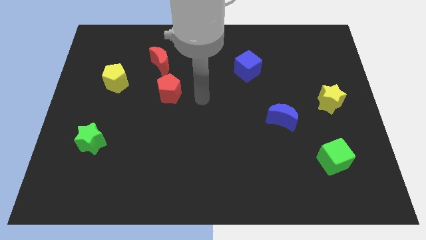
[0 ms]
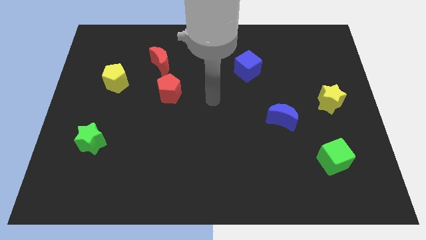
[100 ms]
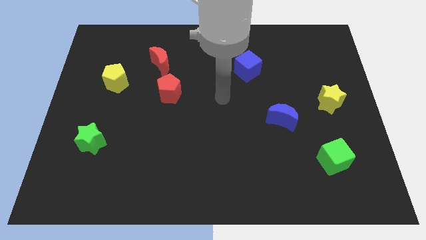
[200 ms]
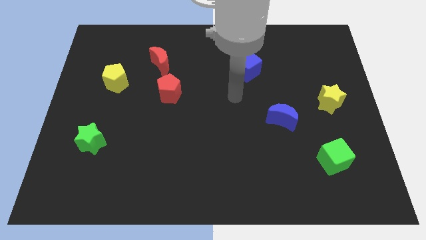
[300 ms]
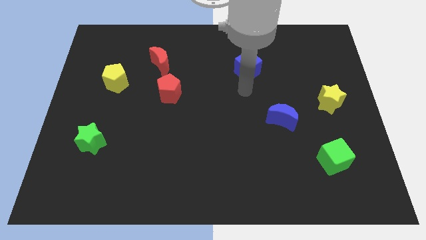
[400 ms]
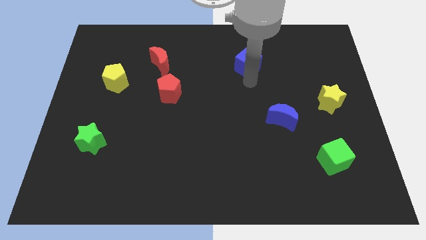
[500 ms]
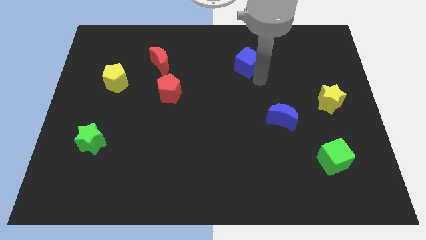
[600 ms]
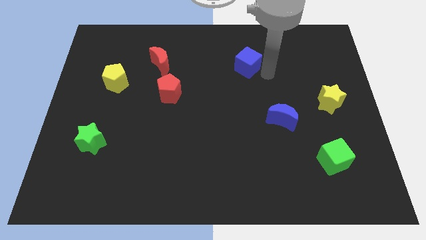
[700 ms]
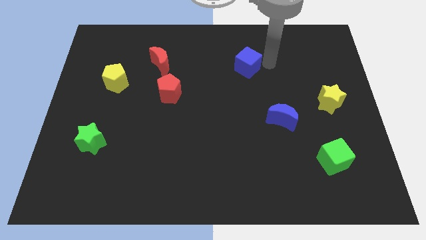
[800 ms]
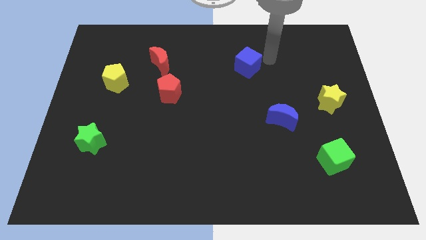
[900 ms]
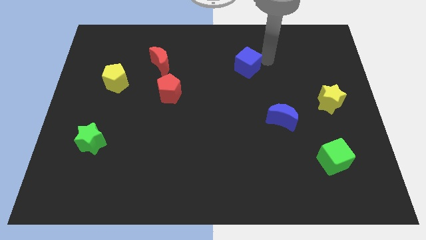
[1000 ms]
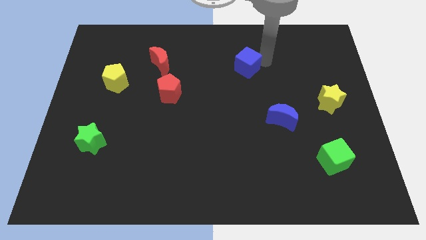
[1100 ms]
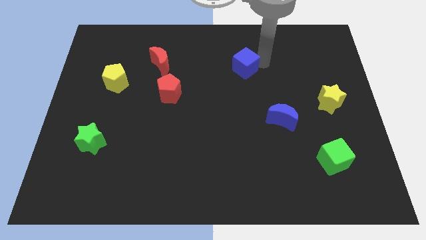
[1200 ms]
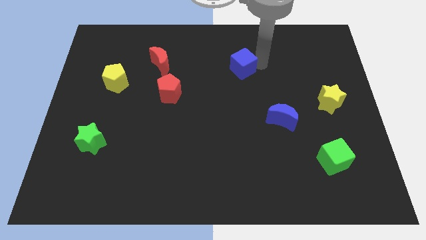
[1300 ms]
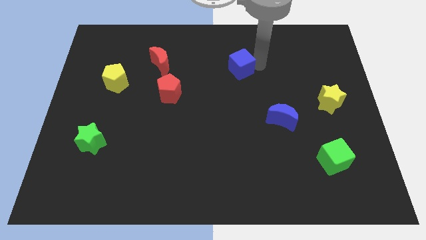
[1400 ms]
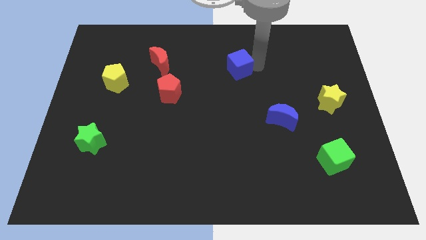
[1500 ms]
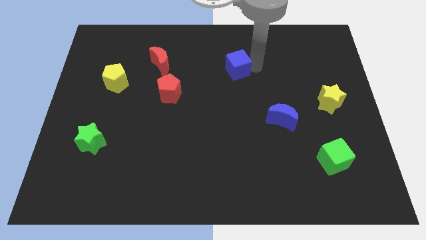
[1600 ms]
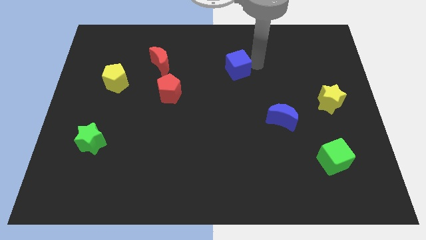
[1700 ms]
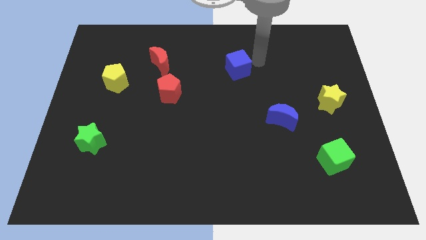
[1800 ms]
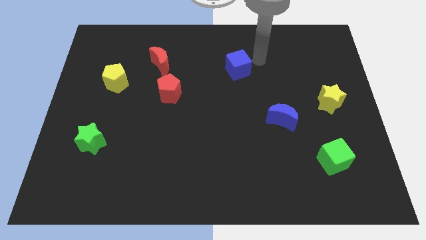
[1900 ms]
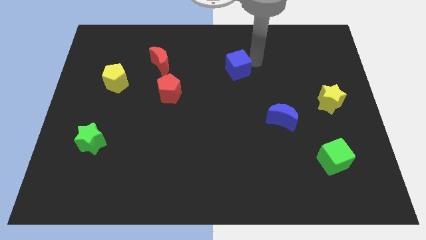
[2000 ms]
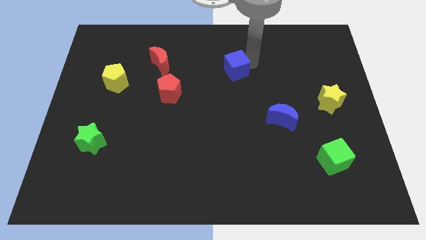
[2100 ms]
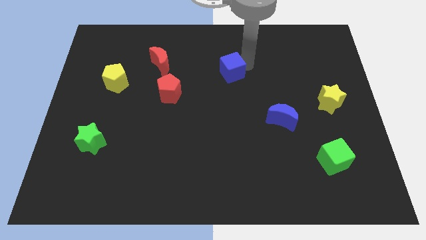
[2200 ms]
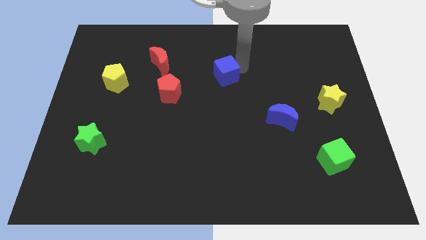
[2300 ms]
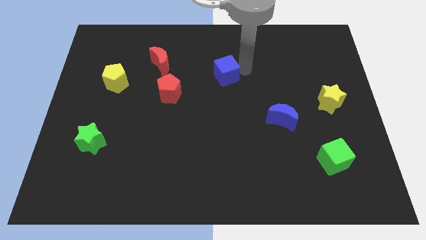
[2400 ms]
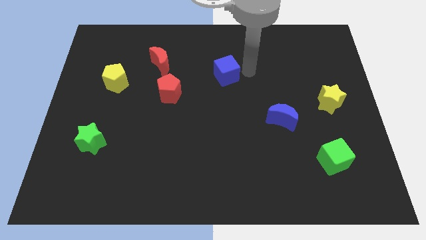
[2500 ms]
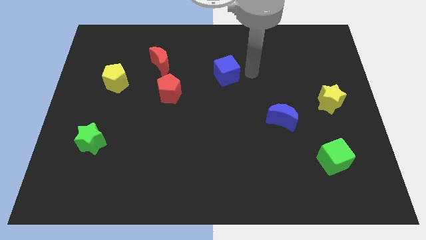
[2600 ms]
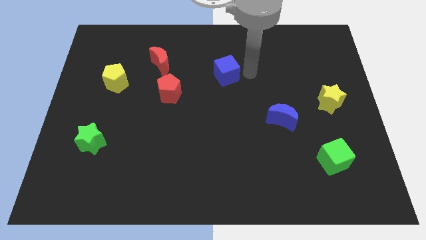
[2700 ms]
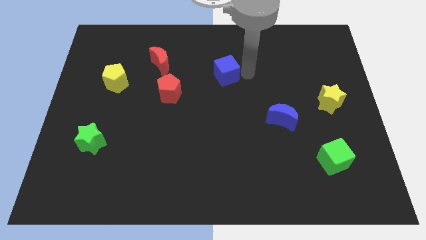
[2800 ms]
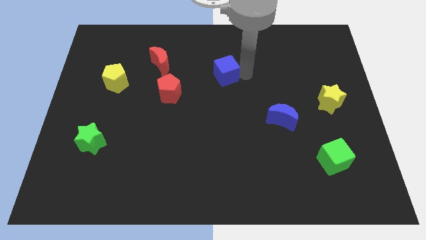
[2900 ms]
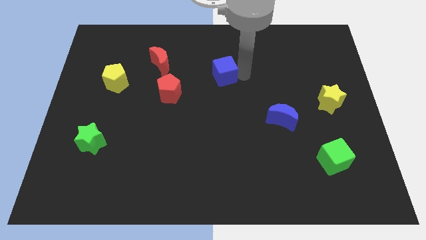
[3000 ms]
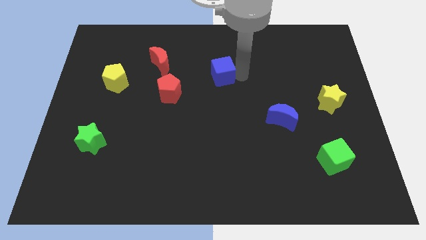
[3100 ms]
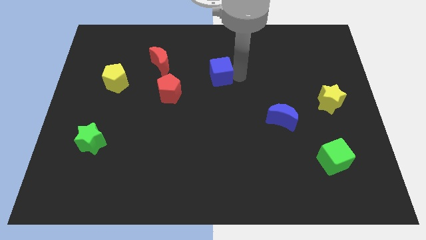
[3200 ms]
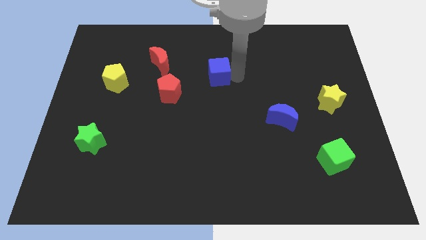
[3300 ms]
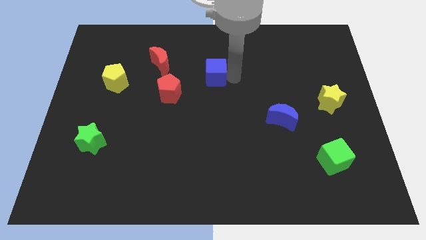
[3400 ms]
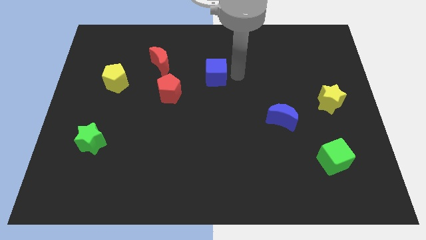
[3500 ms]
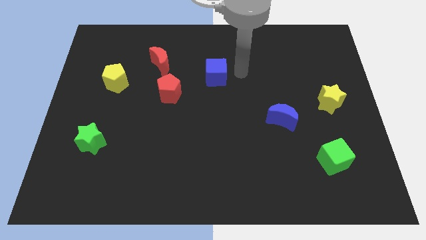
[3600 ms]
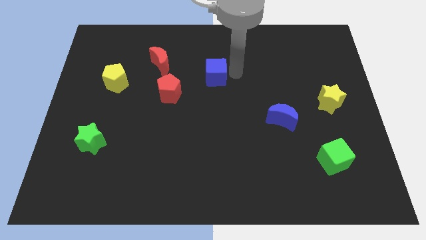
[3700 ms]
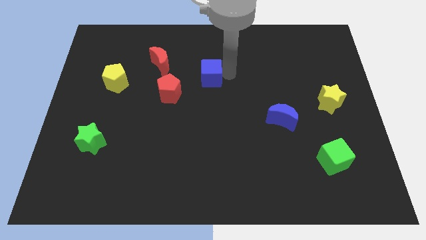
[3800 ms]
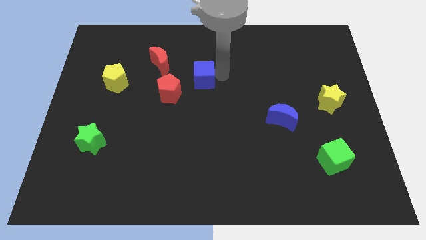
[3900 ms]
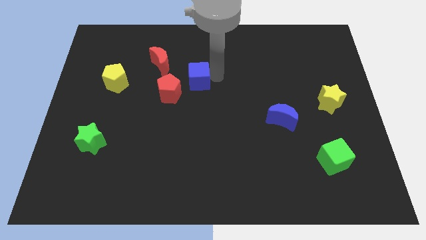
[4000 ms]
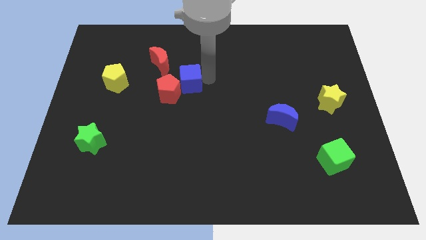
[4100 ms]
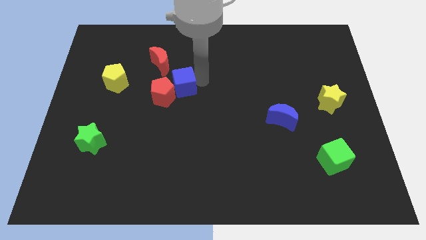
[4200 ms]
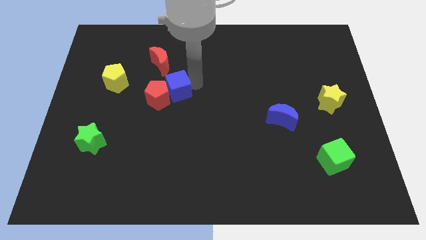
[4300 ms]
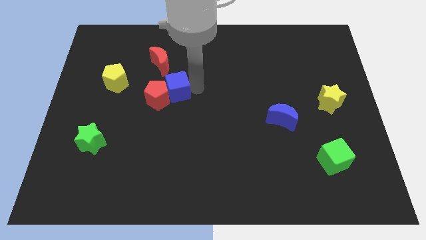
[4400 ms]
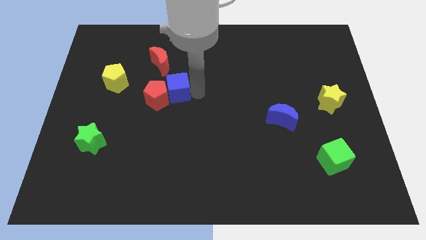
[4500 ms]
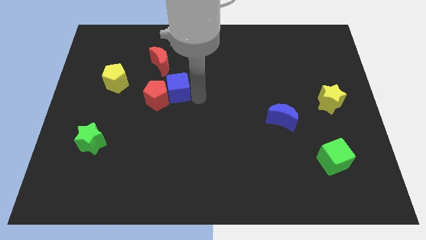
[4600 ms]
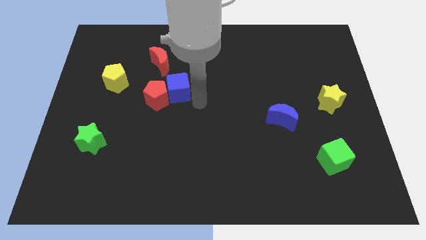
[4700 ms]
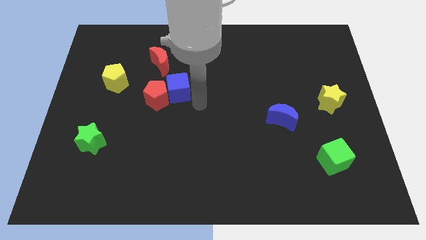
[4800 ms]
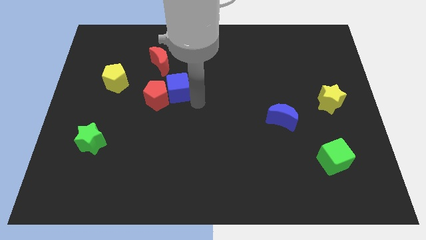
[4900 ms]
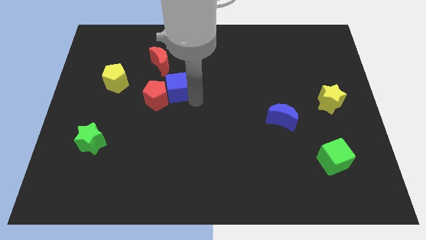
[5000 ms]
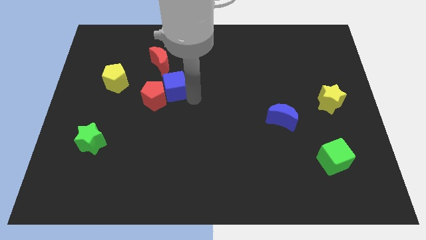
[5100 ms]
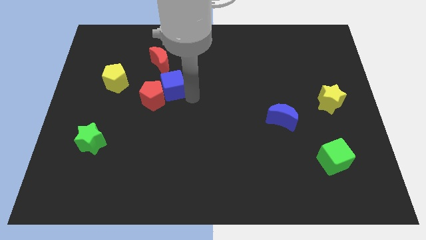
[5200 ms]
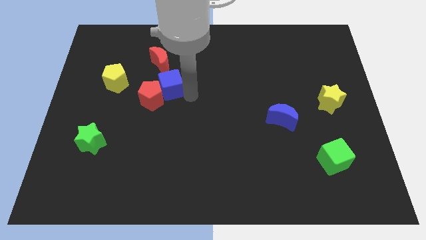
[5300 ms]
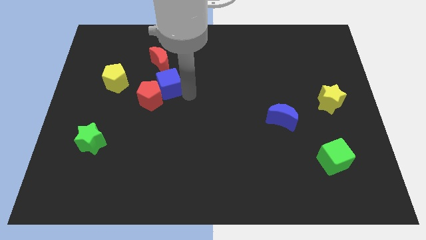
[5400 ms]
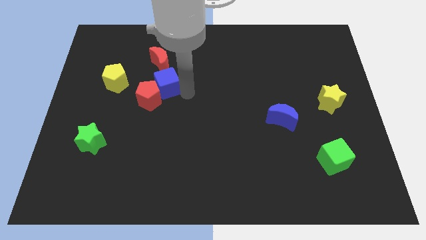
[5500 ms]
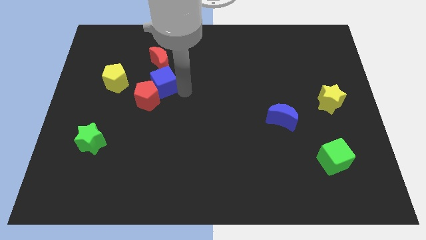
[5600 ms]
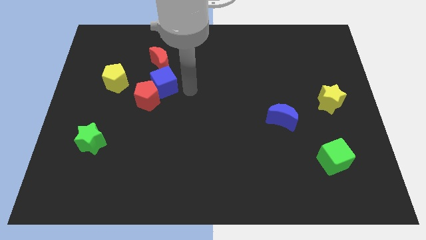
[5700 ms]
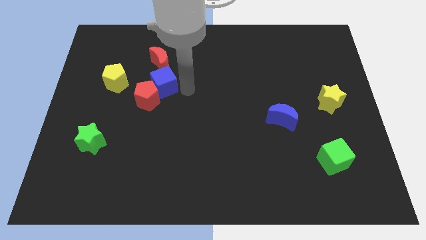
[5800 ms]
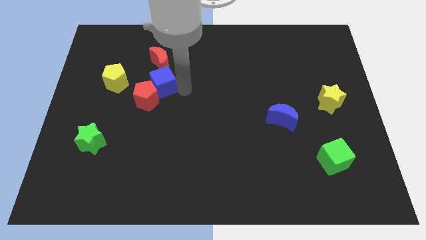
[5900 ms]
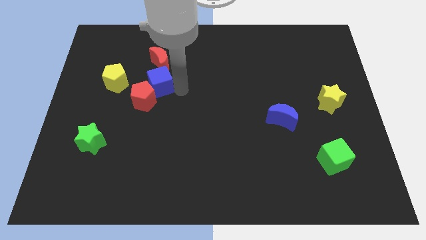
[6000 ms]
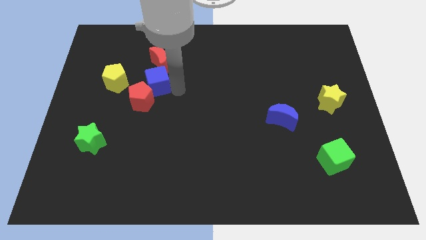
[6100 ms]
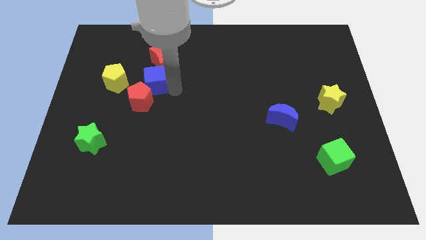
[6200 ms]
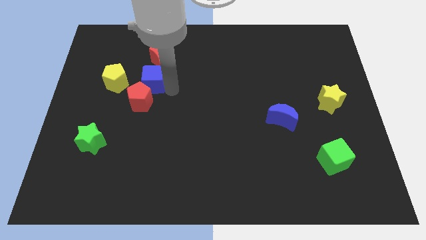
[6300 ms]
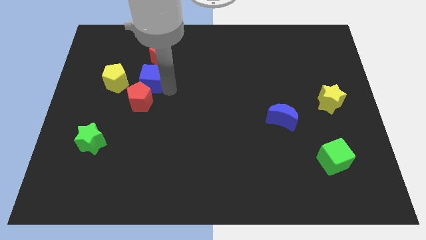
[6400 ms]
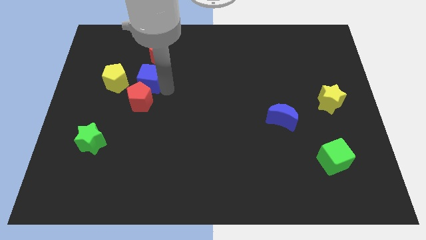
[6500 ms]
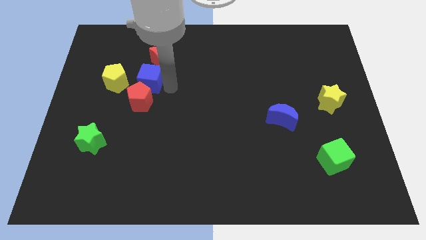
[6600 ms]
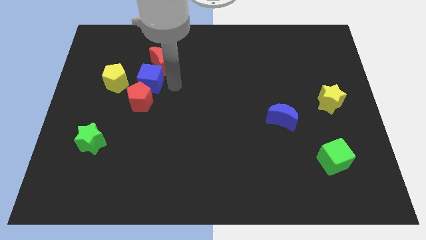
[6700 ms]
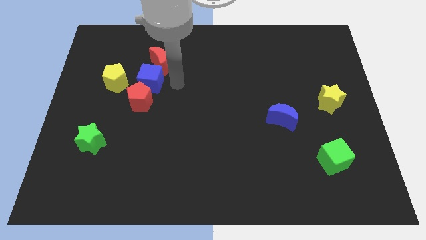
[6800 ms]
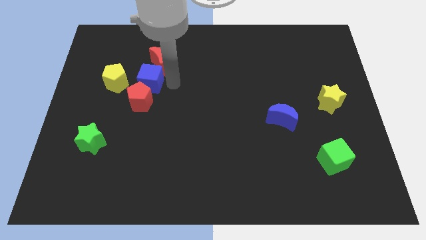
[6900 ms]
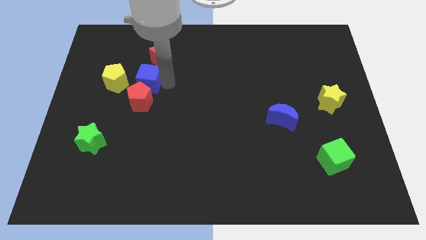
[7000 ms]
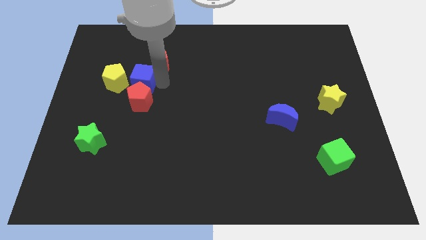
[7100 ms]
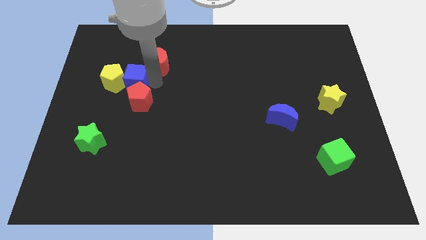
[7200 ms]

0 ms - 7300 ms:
slide the blue cube close to the yellow pentagon

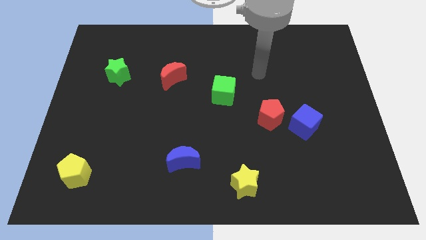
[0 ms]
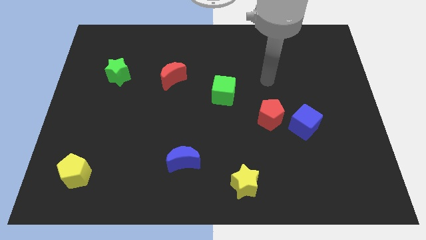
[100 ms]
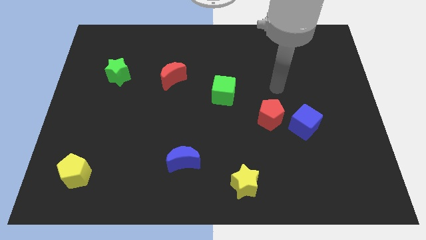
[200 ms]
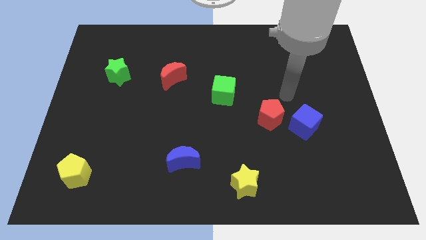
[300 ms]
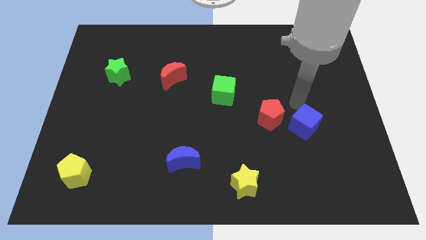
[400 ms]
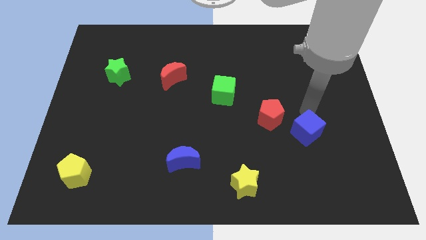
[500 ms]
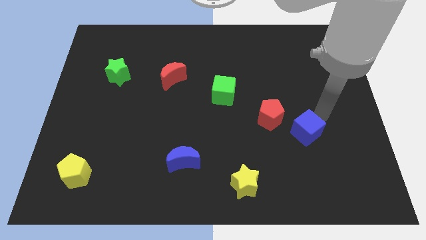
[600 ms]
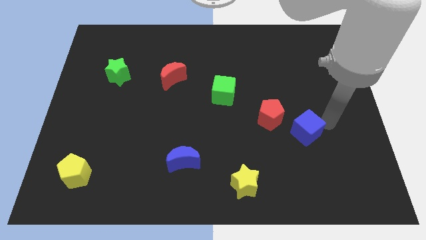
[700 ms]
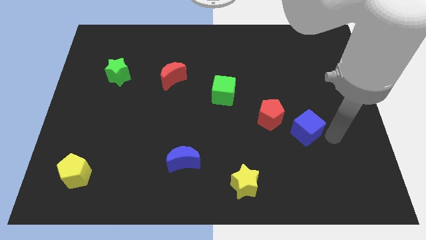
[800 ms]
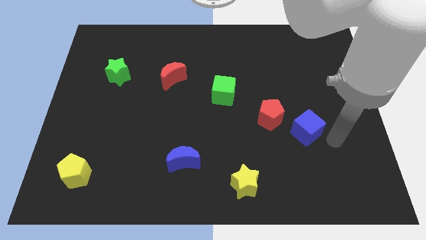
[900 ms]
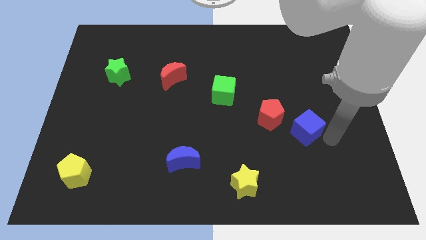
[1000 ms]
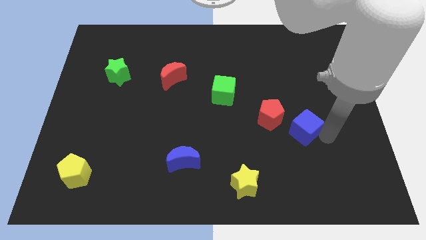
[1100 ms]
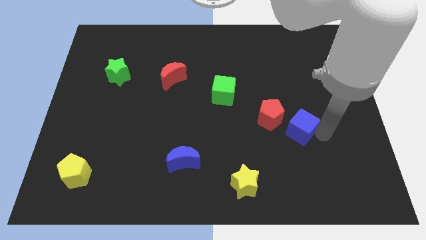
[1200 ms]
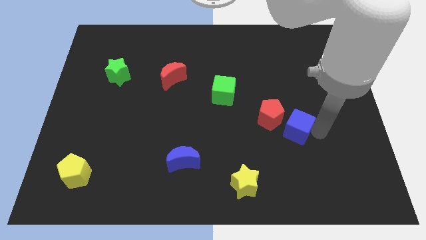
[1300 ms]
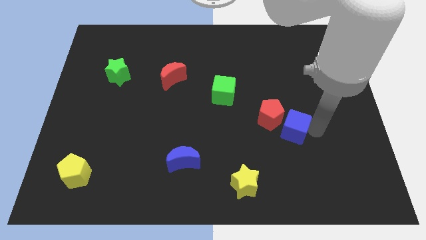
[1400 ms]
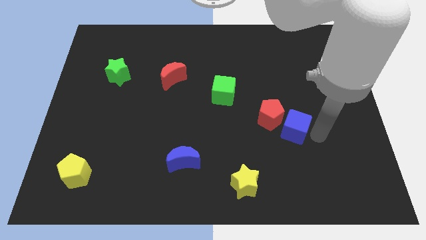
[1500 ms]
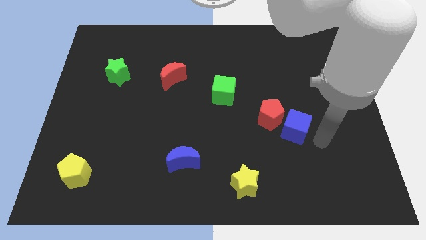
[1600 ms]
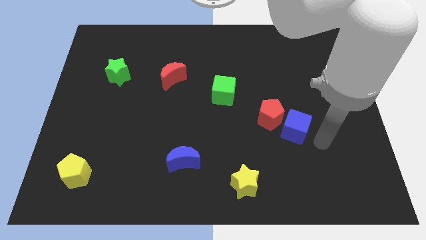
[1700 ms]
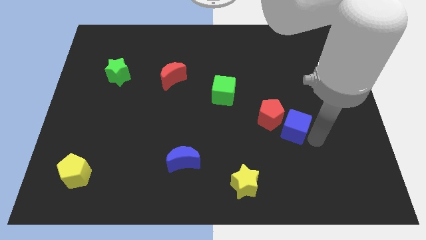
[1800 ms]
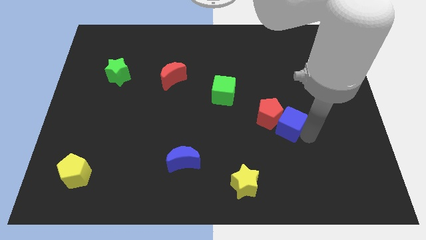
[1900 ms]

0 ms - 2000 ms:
slide the blue cube close to the red pentagon
